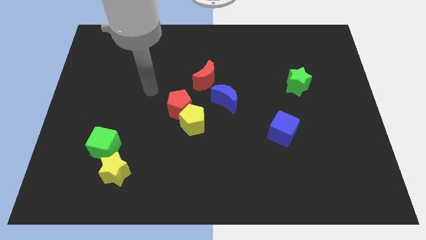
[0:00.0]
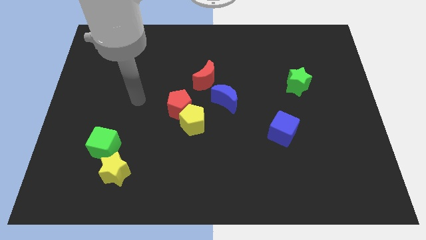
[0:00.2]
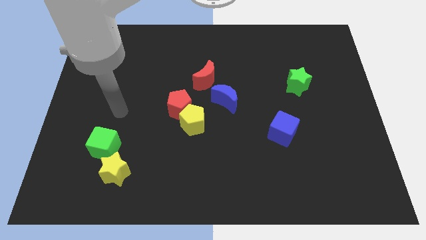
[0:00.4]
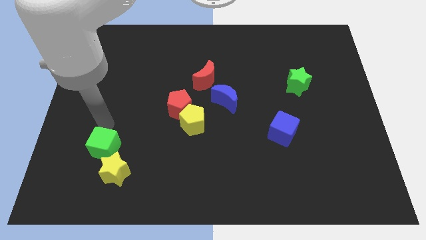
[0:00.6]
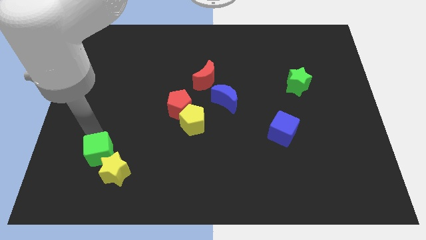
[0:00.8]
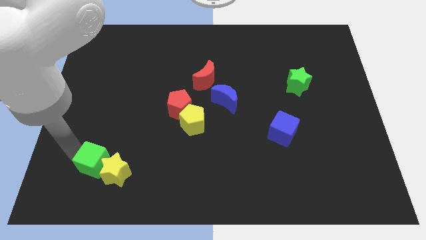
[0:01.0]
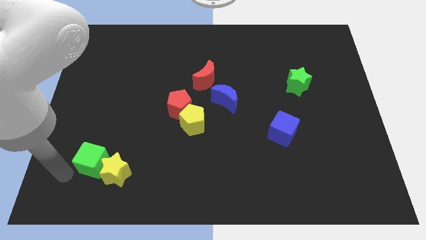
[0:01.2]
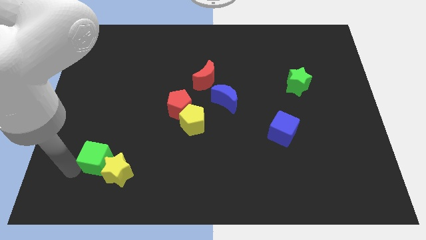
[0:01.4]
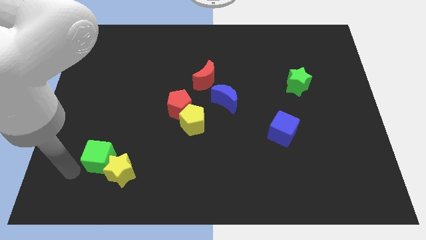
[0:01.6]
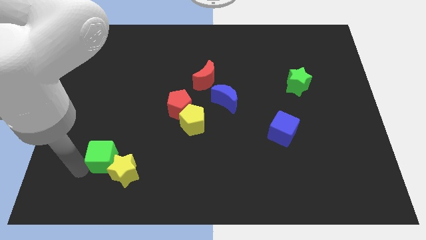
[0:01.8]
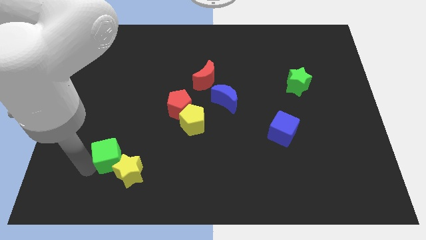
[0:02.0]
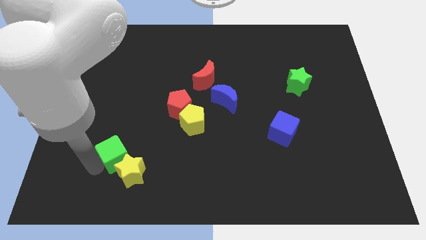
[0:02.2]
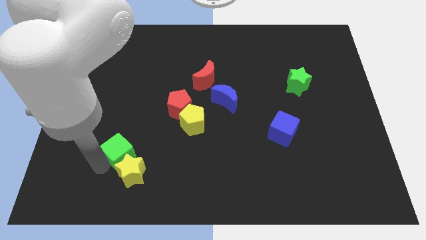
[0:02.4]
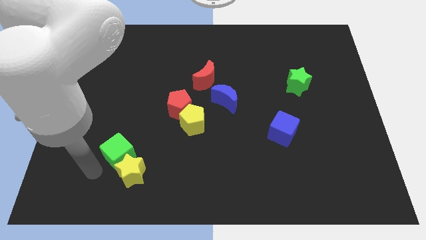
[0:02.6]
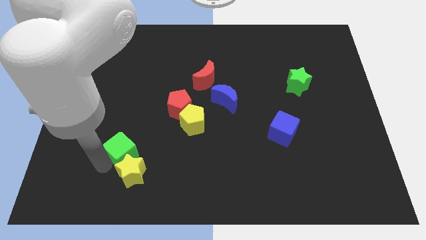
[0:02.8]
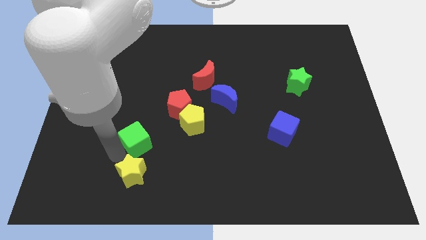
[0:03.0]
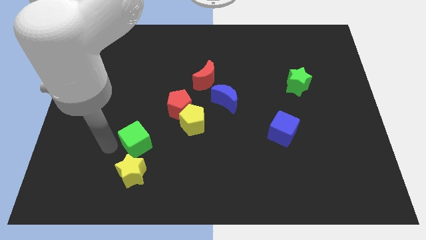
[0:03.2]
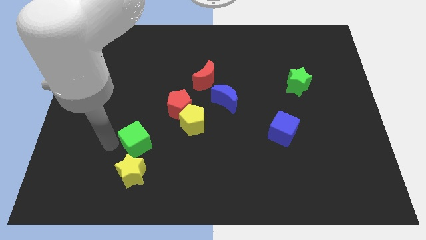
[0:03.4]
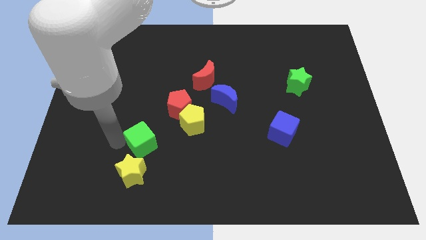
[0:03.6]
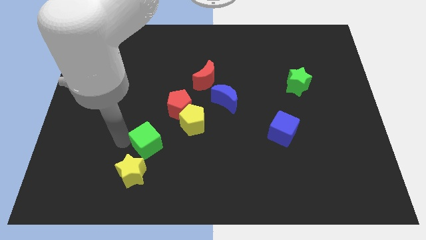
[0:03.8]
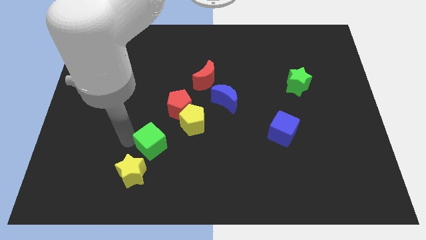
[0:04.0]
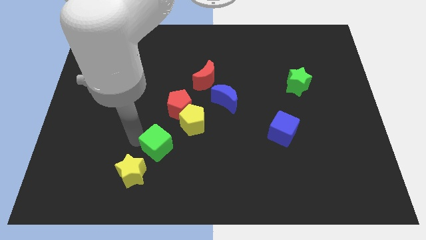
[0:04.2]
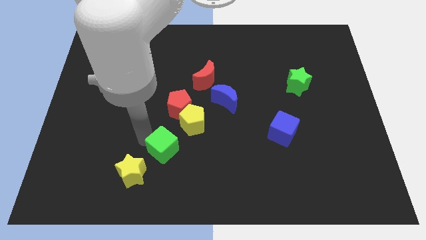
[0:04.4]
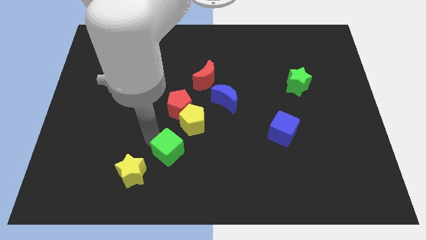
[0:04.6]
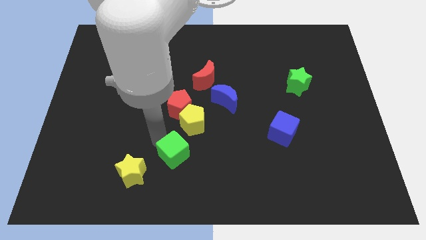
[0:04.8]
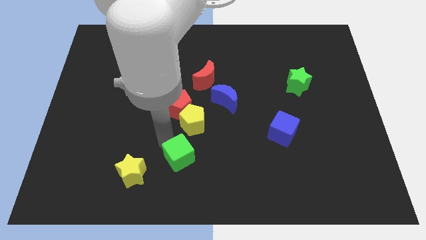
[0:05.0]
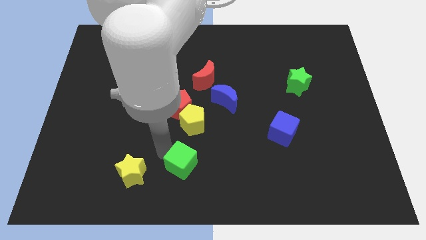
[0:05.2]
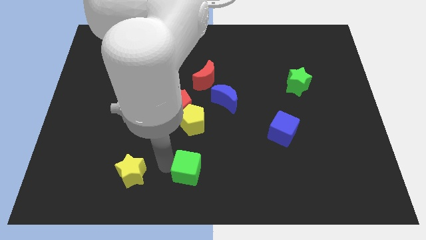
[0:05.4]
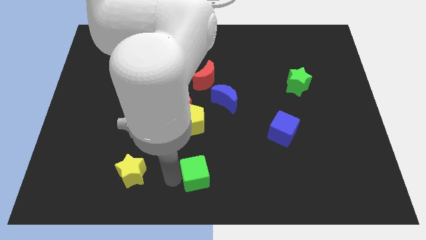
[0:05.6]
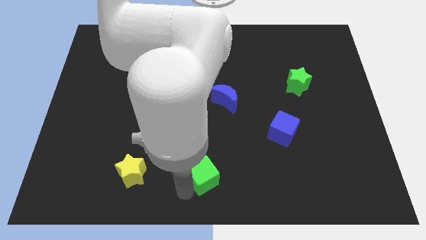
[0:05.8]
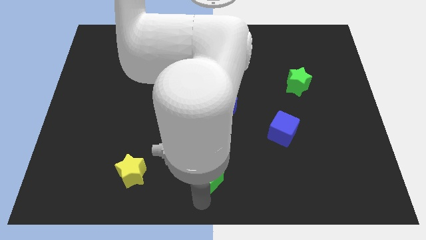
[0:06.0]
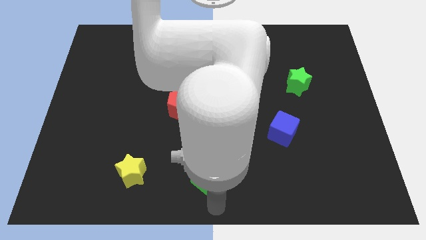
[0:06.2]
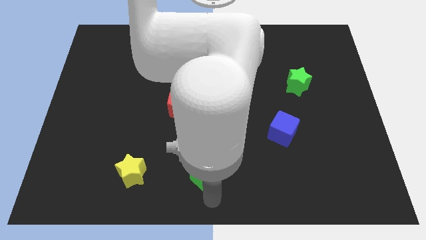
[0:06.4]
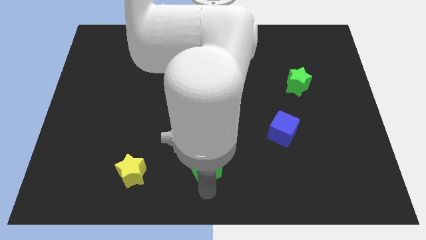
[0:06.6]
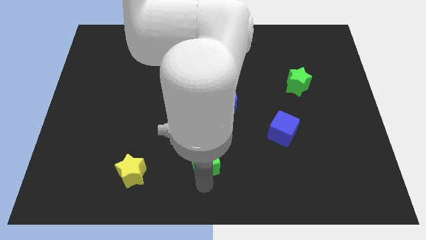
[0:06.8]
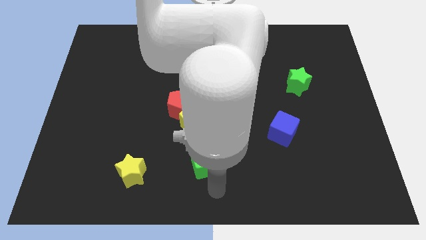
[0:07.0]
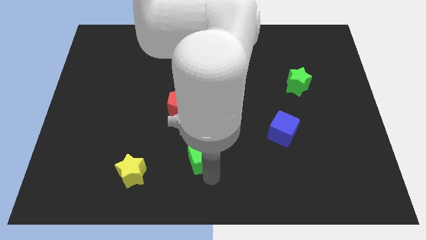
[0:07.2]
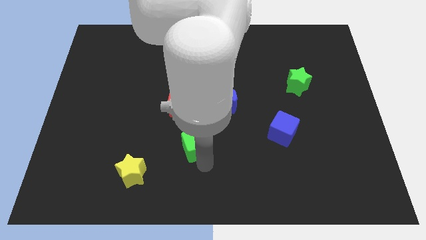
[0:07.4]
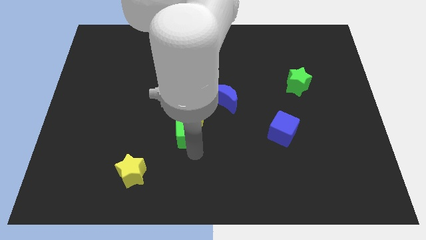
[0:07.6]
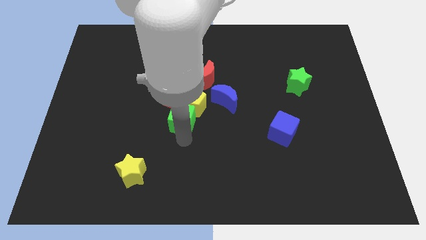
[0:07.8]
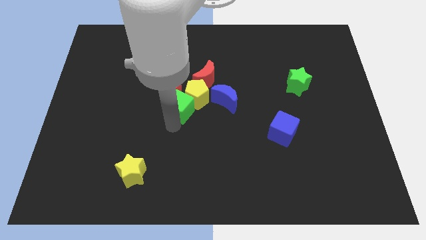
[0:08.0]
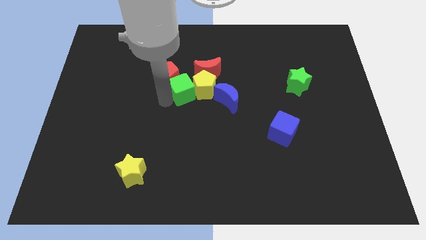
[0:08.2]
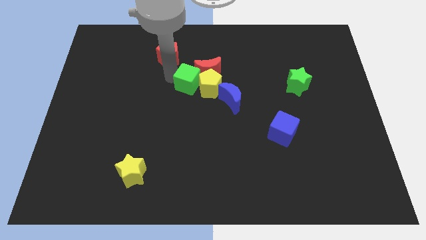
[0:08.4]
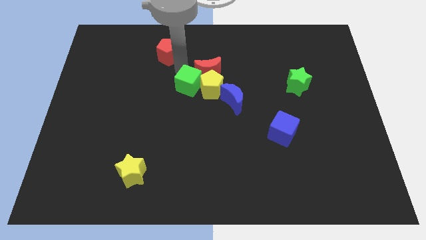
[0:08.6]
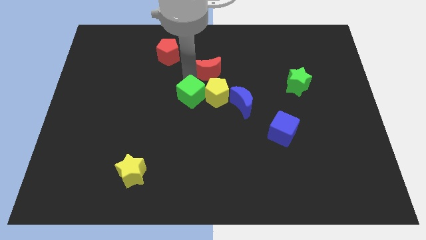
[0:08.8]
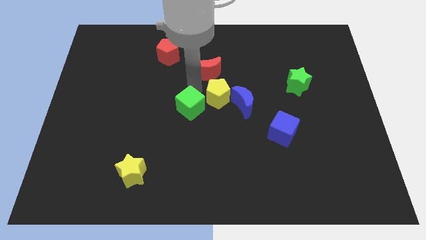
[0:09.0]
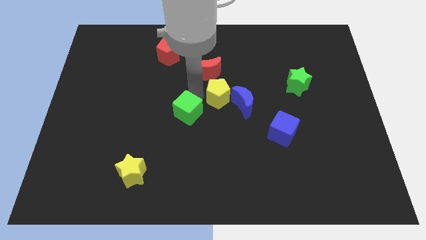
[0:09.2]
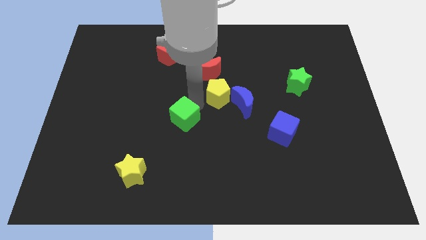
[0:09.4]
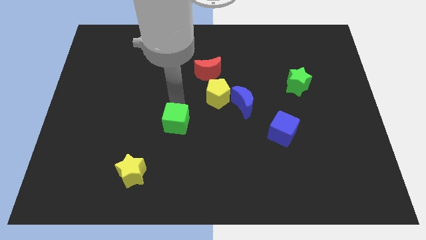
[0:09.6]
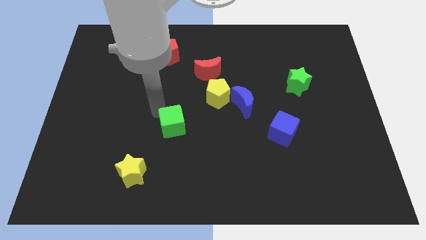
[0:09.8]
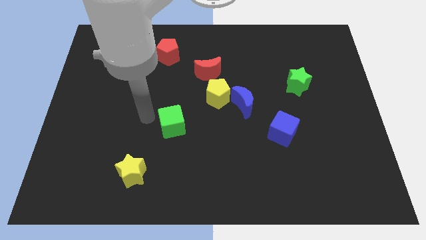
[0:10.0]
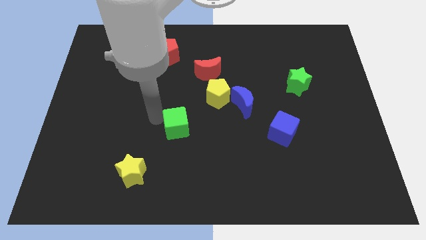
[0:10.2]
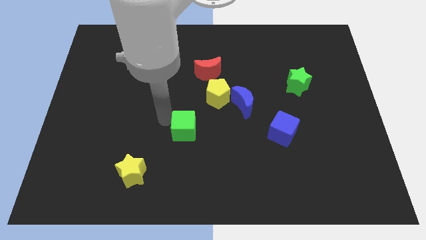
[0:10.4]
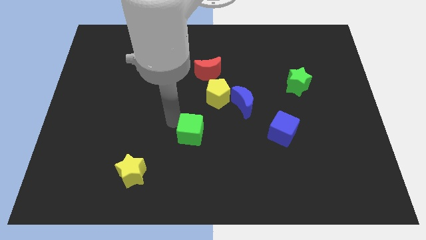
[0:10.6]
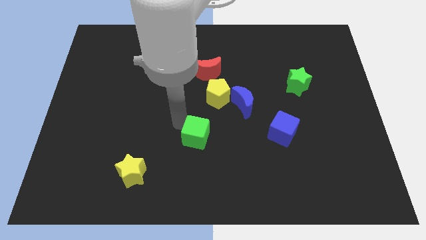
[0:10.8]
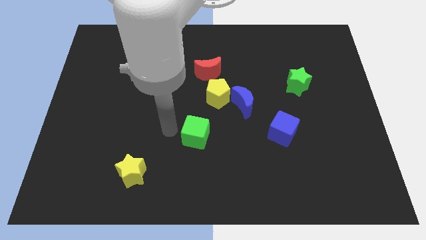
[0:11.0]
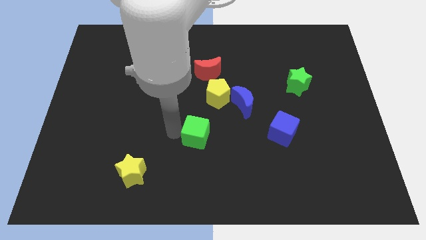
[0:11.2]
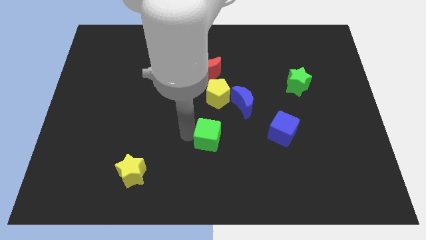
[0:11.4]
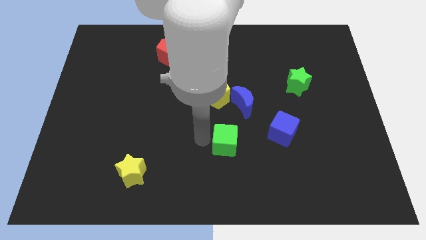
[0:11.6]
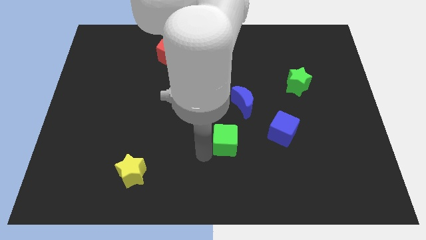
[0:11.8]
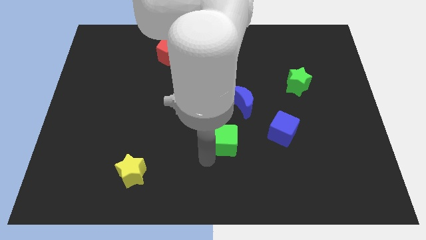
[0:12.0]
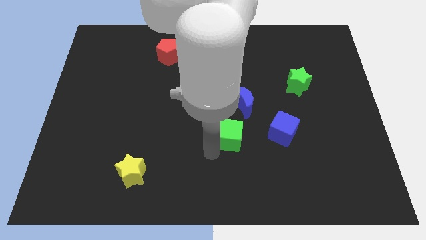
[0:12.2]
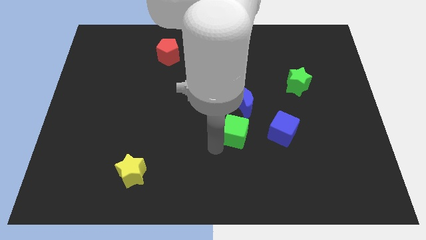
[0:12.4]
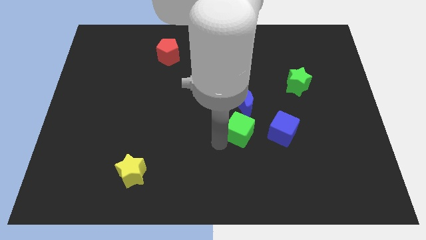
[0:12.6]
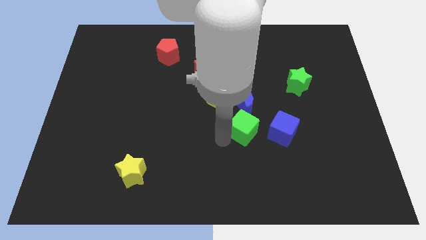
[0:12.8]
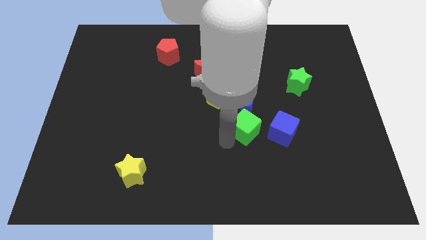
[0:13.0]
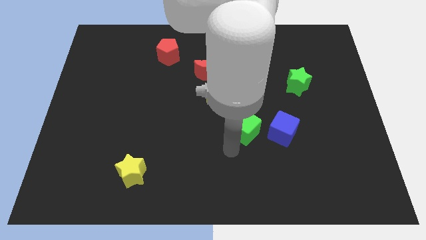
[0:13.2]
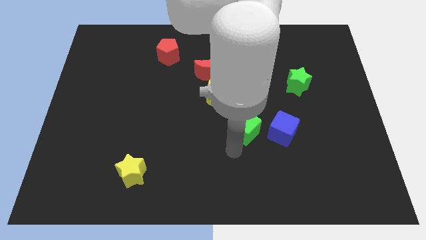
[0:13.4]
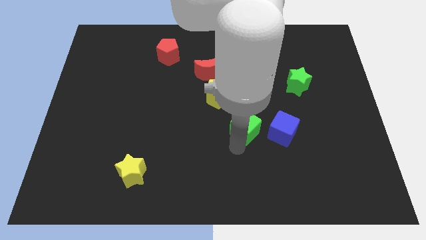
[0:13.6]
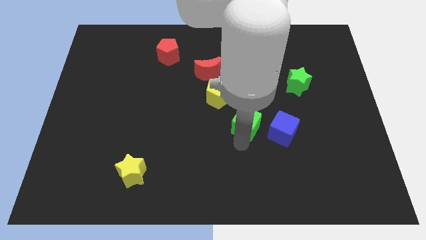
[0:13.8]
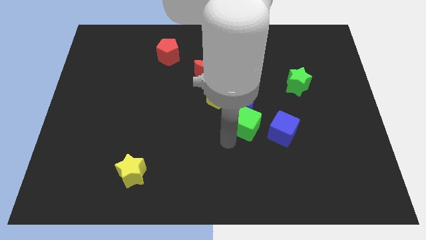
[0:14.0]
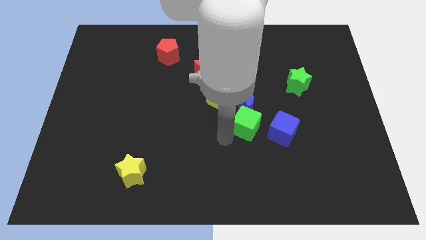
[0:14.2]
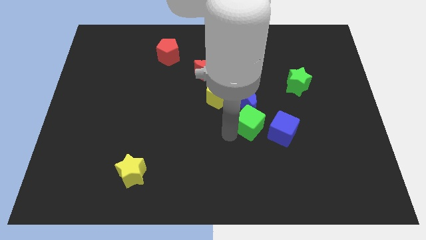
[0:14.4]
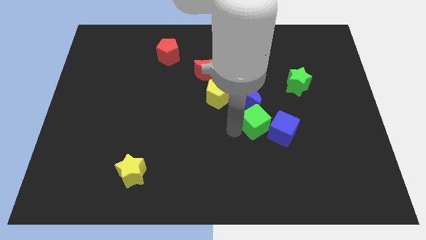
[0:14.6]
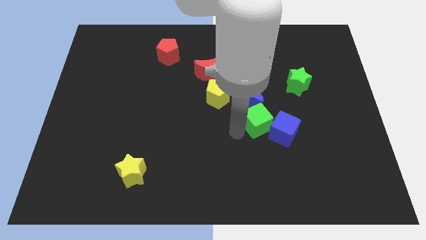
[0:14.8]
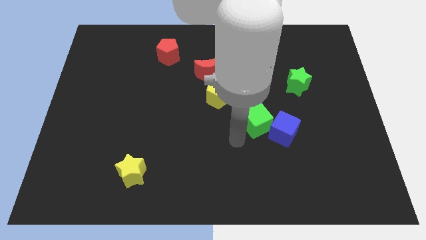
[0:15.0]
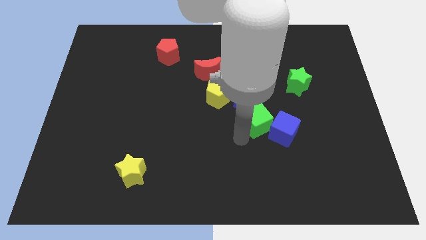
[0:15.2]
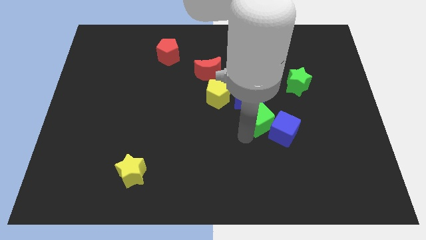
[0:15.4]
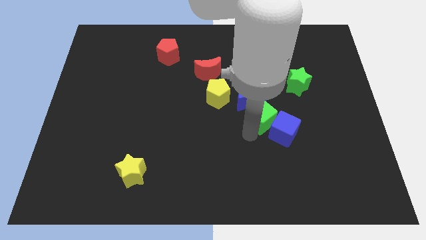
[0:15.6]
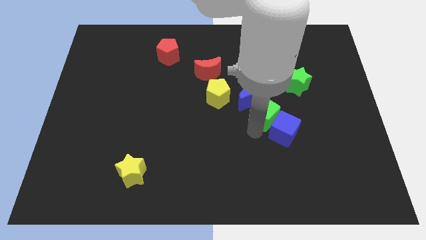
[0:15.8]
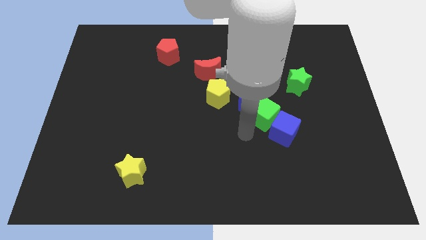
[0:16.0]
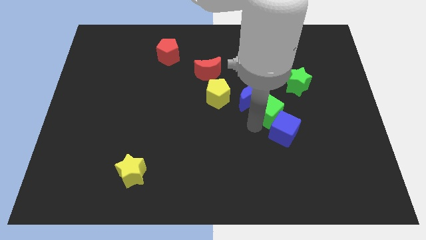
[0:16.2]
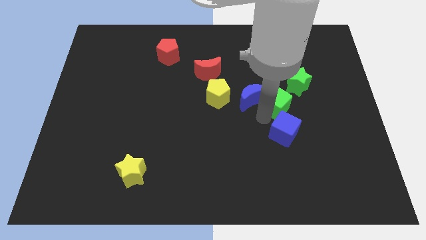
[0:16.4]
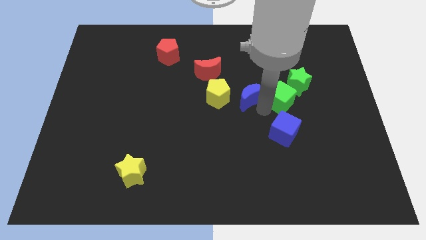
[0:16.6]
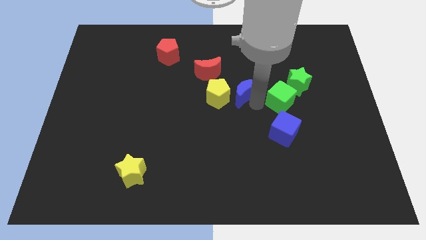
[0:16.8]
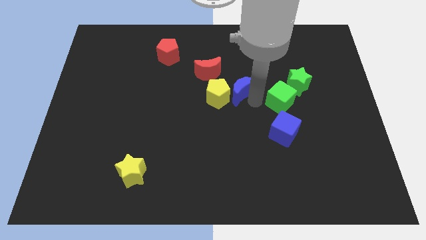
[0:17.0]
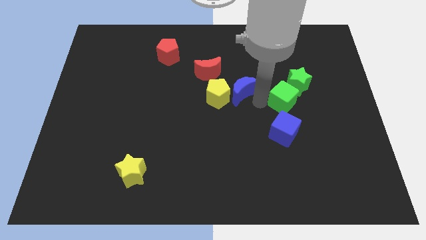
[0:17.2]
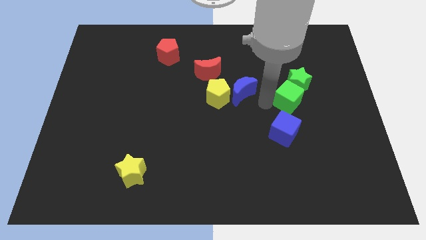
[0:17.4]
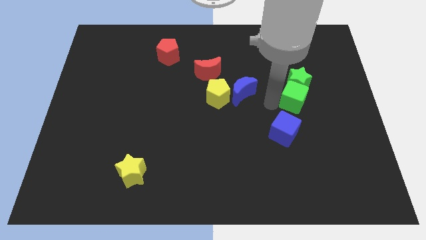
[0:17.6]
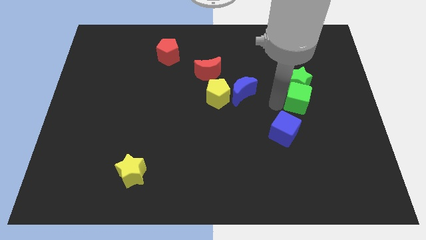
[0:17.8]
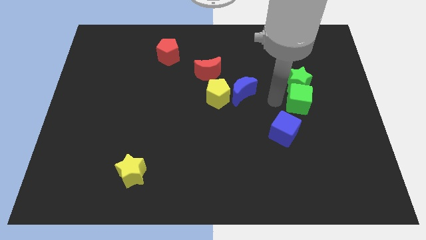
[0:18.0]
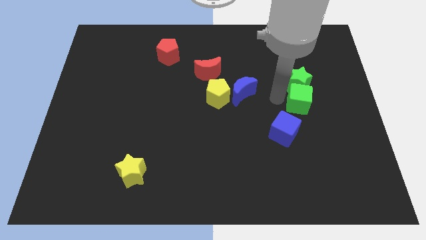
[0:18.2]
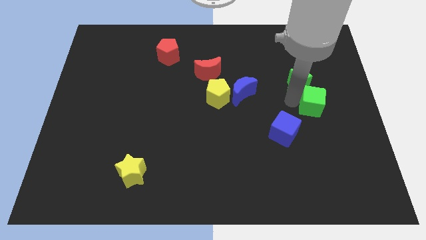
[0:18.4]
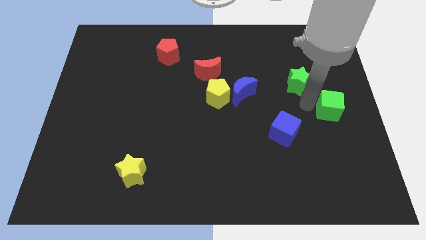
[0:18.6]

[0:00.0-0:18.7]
push the green cube to the right side of the board
